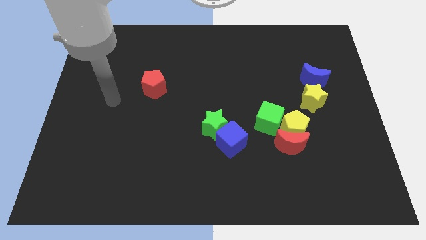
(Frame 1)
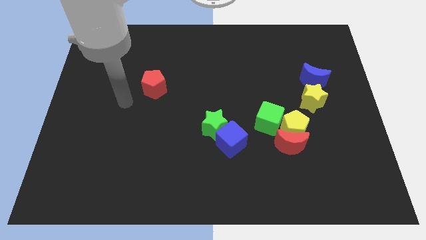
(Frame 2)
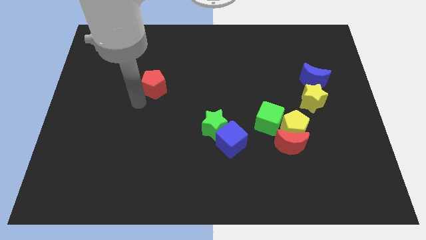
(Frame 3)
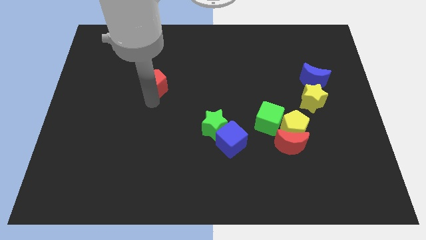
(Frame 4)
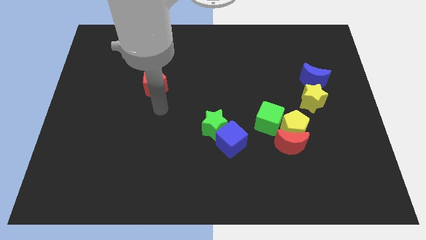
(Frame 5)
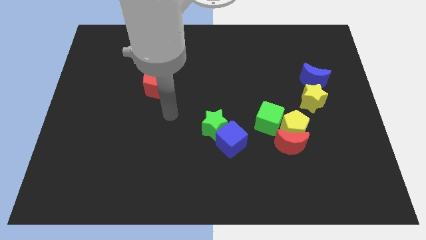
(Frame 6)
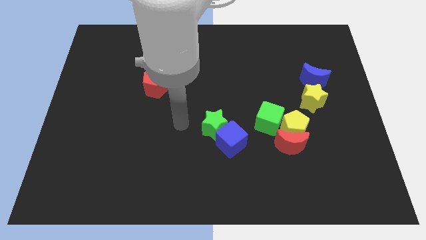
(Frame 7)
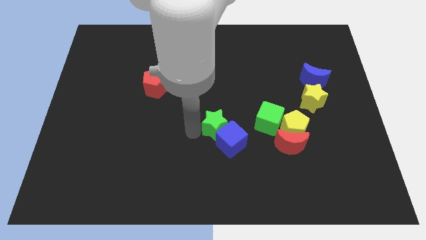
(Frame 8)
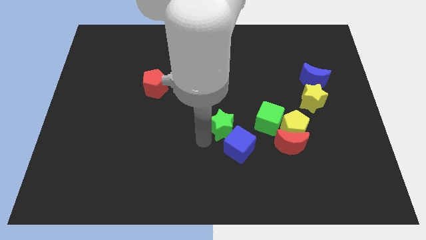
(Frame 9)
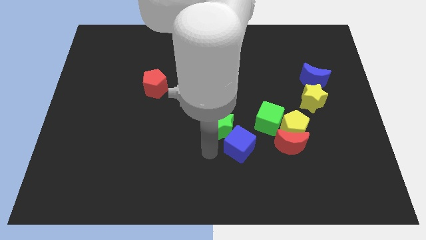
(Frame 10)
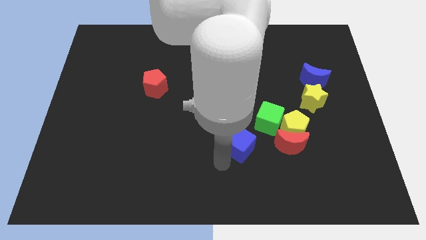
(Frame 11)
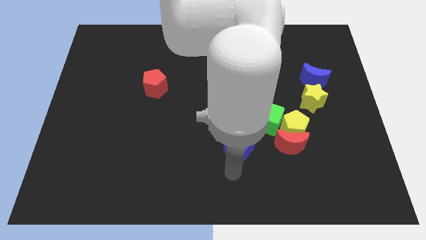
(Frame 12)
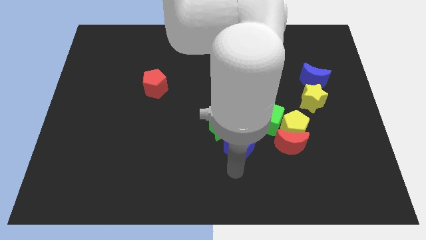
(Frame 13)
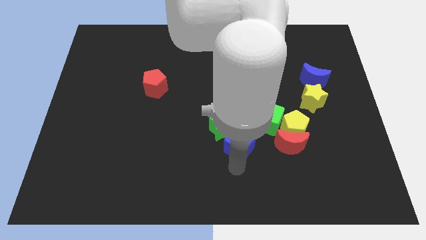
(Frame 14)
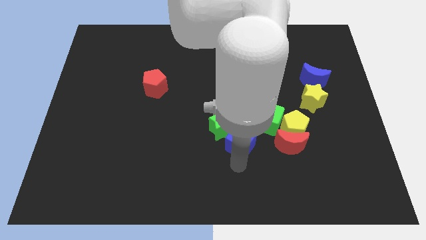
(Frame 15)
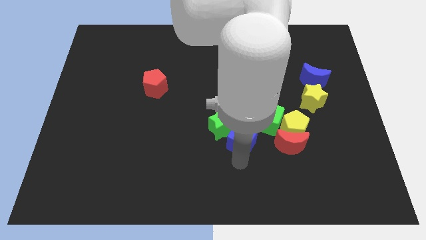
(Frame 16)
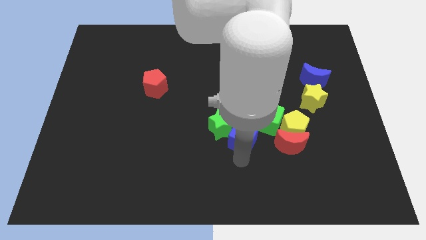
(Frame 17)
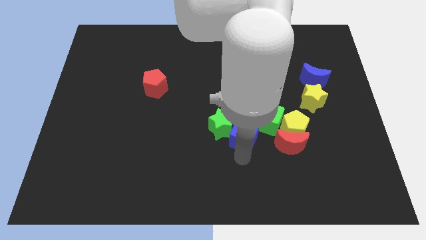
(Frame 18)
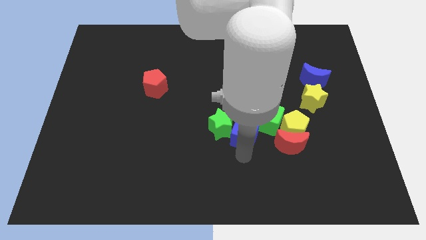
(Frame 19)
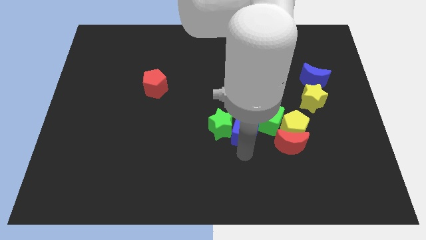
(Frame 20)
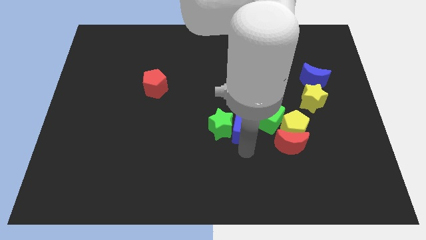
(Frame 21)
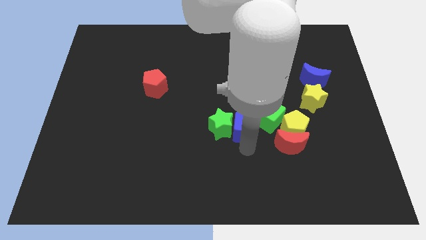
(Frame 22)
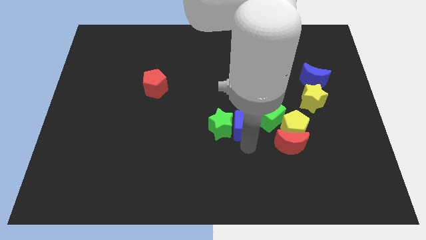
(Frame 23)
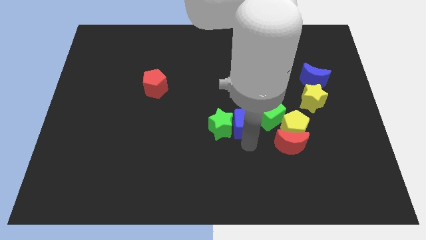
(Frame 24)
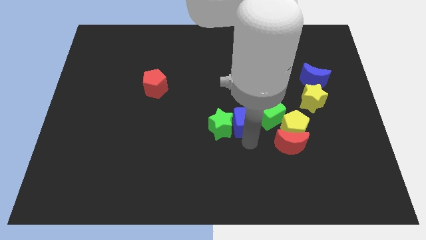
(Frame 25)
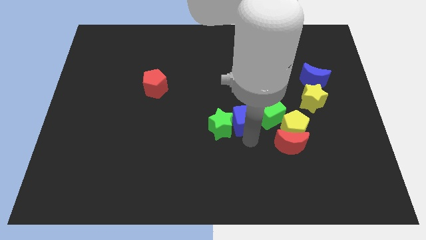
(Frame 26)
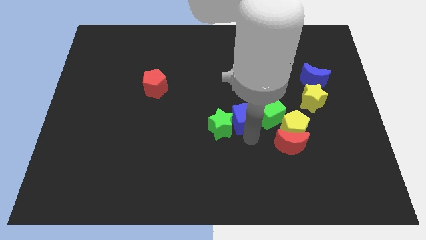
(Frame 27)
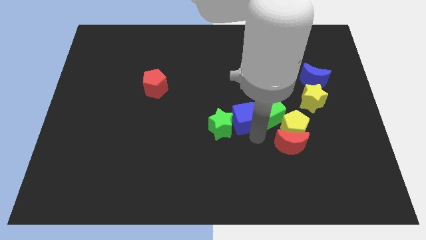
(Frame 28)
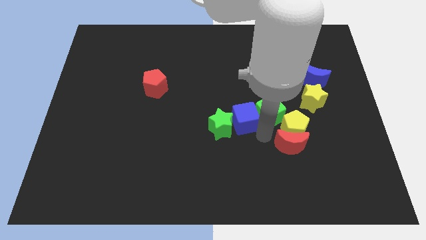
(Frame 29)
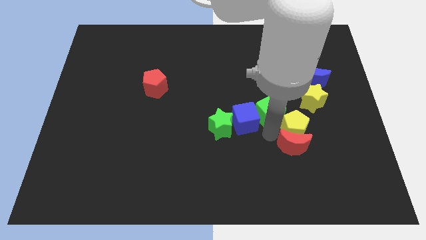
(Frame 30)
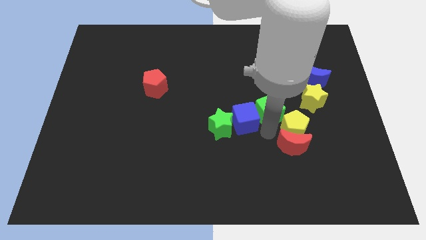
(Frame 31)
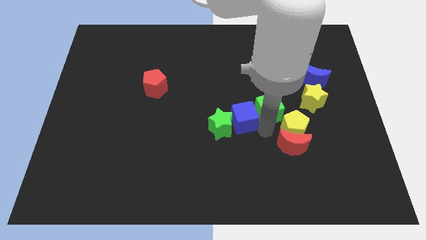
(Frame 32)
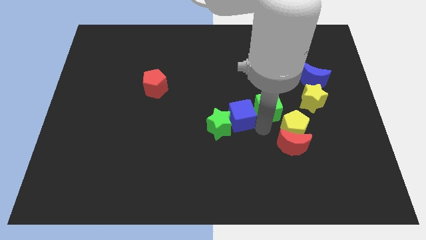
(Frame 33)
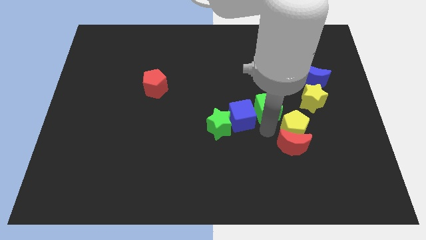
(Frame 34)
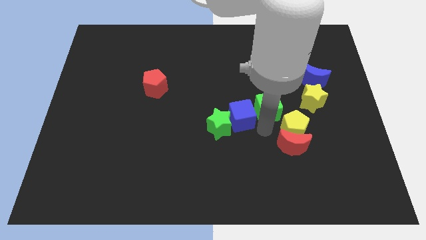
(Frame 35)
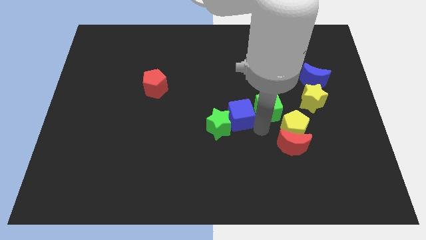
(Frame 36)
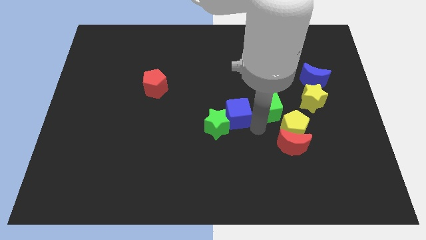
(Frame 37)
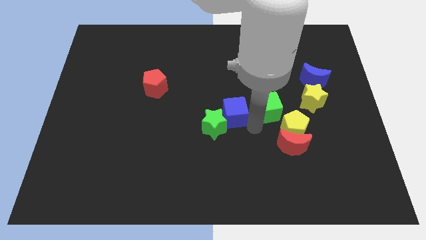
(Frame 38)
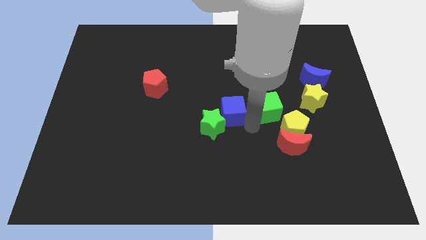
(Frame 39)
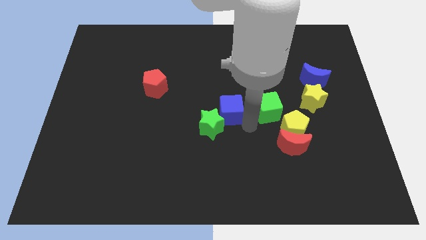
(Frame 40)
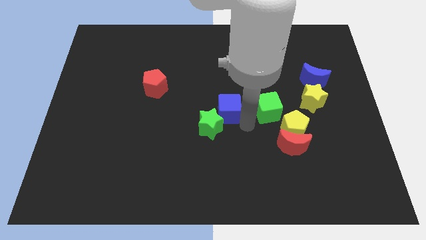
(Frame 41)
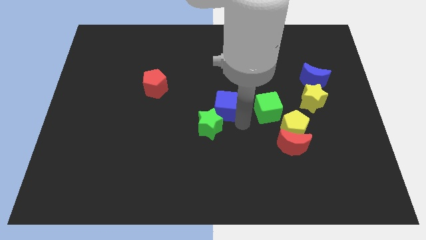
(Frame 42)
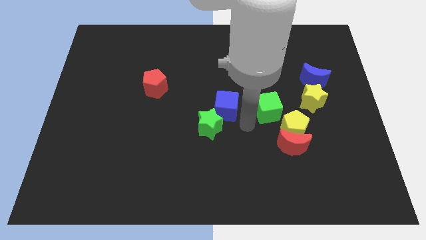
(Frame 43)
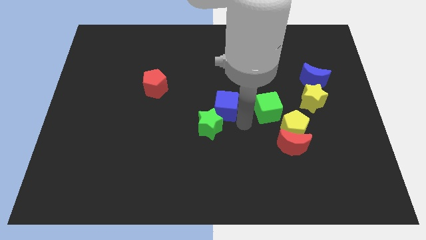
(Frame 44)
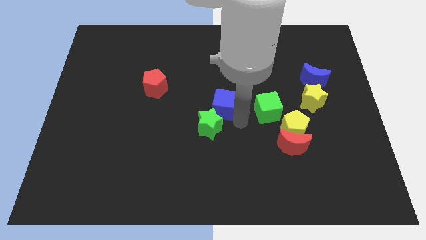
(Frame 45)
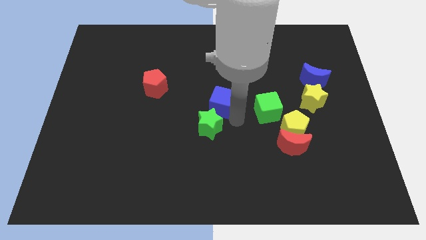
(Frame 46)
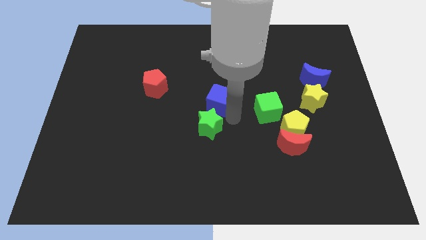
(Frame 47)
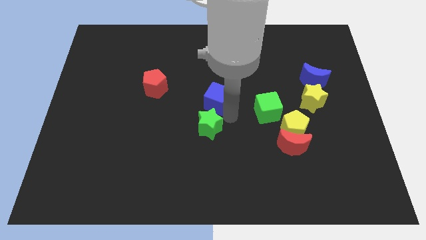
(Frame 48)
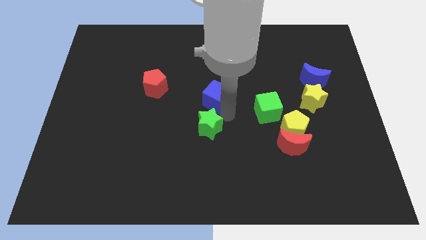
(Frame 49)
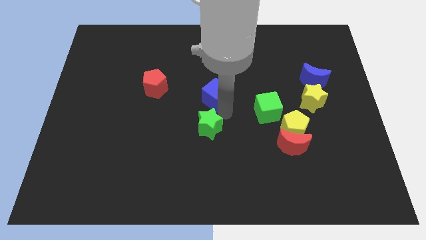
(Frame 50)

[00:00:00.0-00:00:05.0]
push the blue cube right of the red pentagon

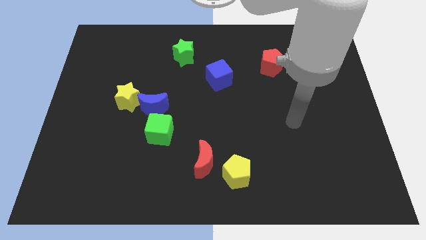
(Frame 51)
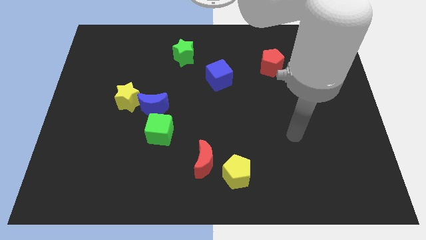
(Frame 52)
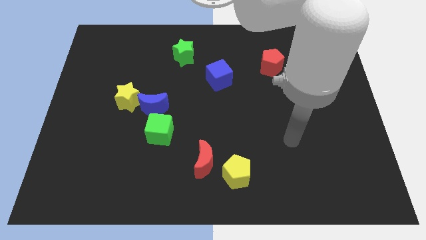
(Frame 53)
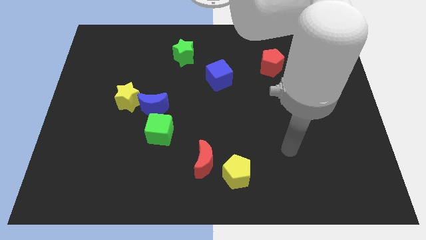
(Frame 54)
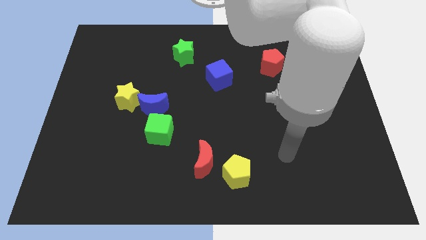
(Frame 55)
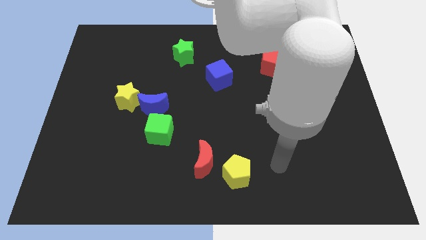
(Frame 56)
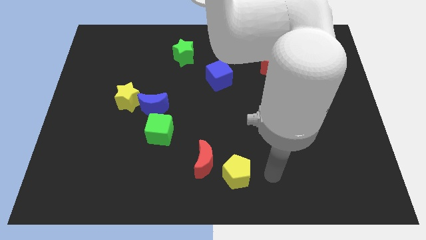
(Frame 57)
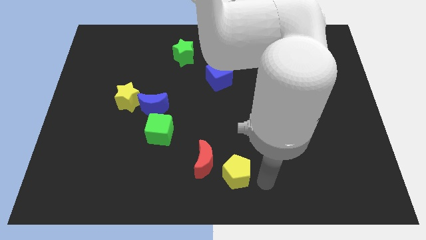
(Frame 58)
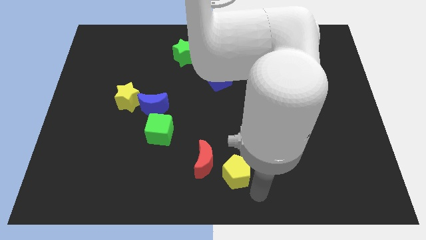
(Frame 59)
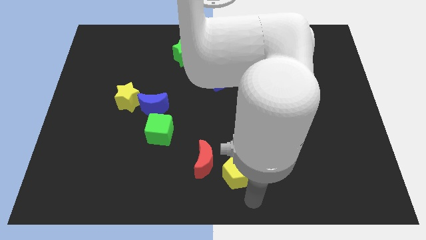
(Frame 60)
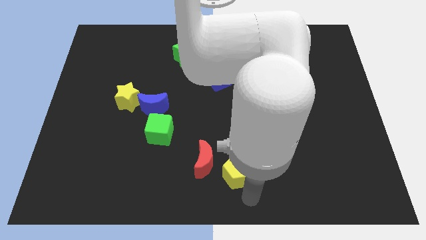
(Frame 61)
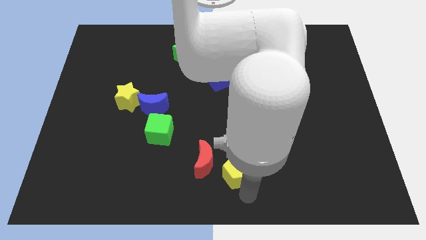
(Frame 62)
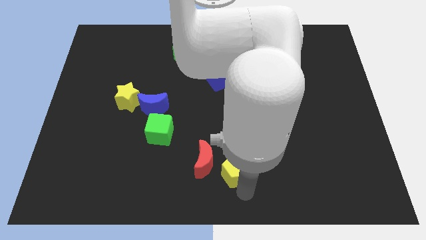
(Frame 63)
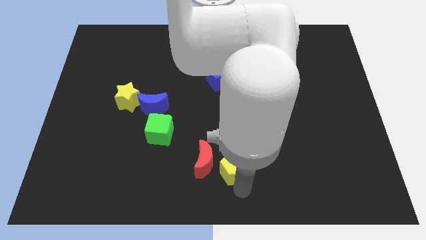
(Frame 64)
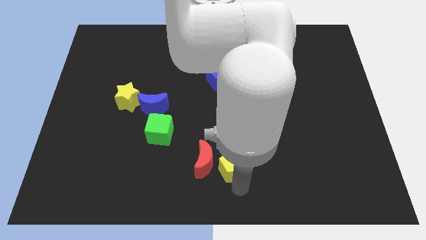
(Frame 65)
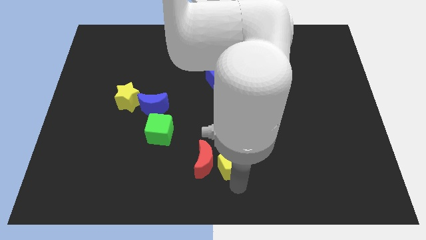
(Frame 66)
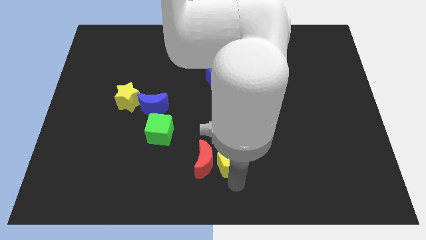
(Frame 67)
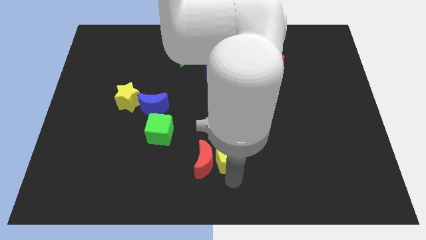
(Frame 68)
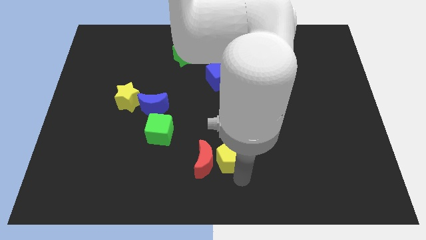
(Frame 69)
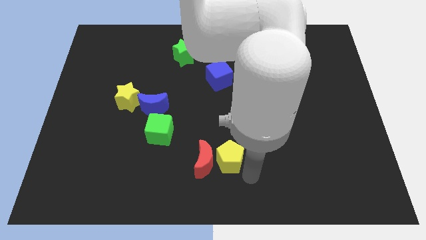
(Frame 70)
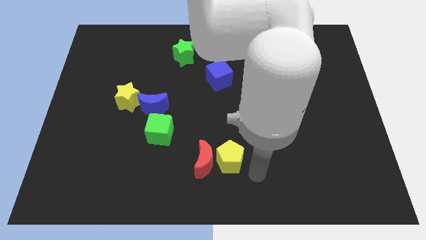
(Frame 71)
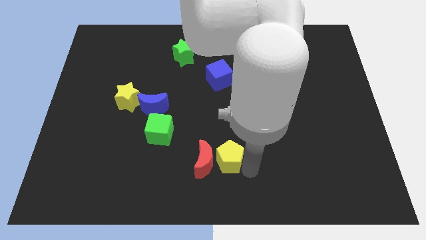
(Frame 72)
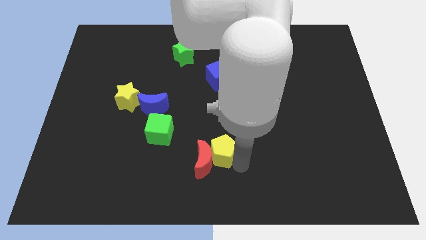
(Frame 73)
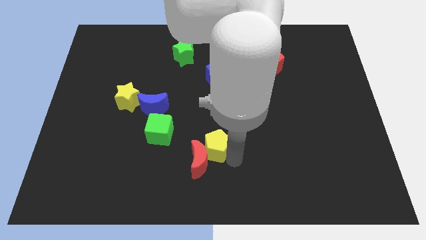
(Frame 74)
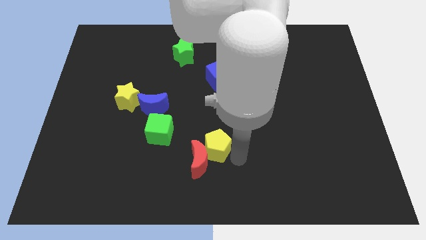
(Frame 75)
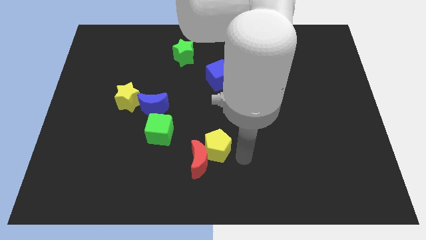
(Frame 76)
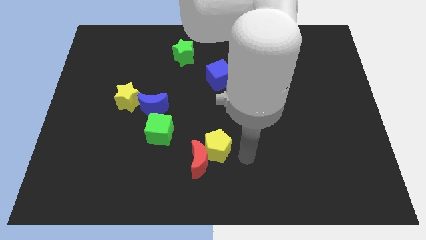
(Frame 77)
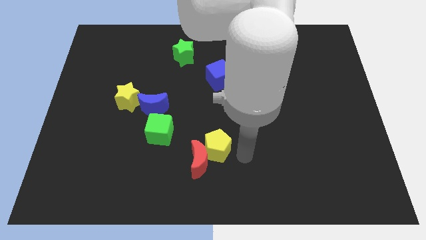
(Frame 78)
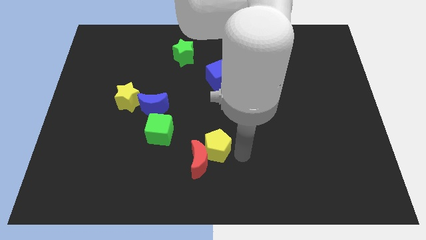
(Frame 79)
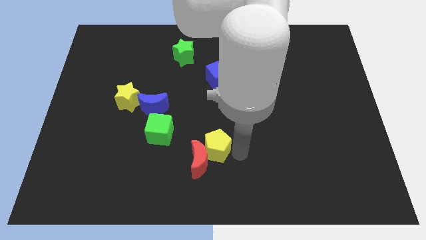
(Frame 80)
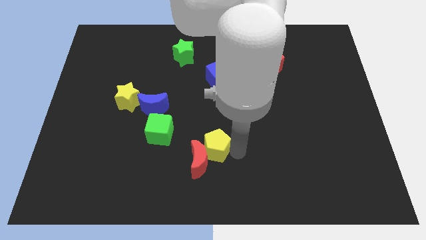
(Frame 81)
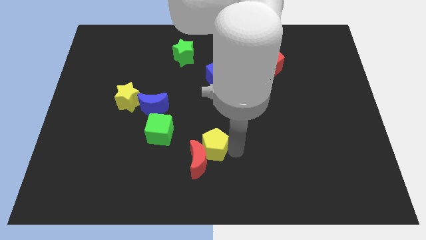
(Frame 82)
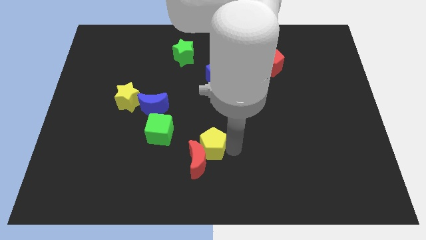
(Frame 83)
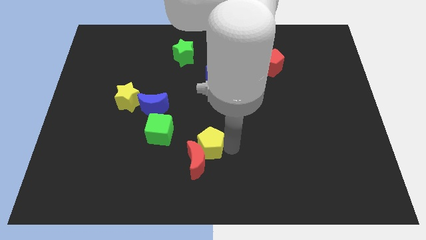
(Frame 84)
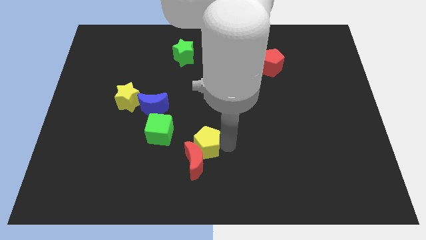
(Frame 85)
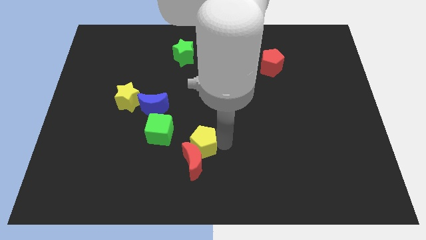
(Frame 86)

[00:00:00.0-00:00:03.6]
slide the yellow pentagon diagonally up and to the left of the red moon
